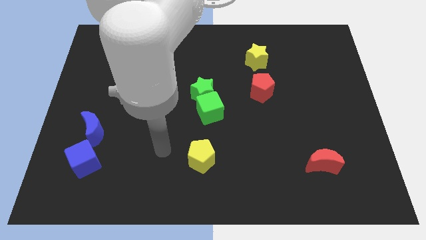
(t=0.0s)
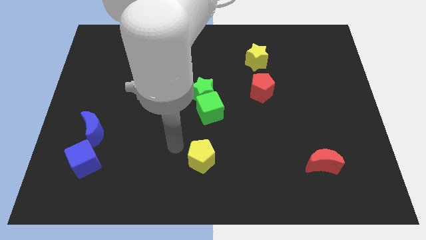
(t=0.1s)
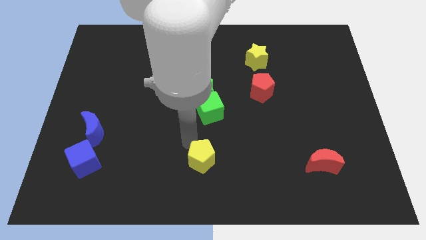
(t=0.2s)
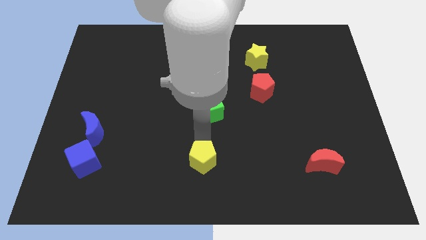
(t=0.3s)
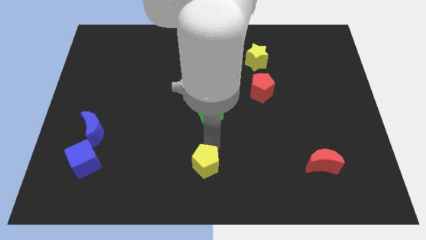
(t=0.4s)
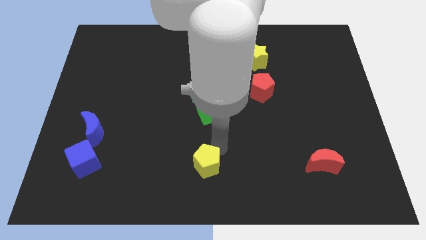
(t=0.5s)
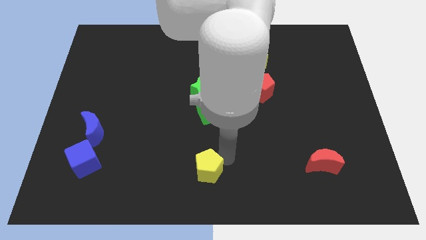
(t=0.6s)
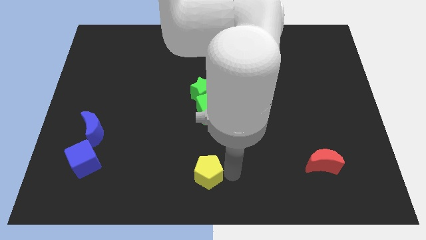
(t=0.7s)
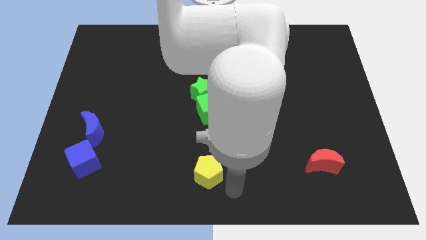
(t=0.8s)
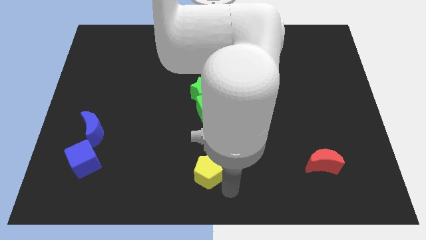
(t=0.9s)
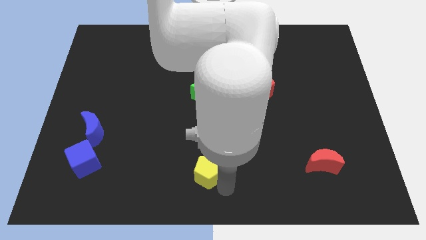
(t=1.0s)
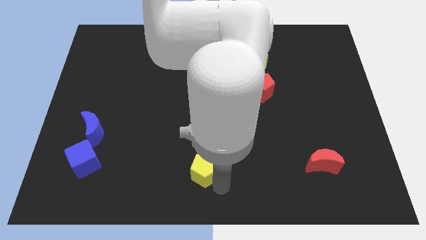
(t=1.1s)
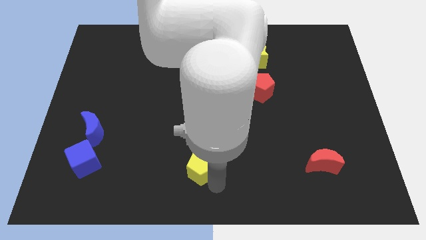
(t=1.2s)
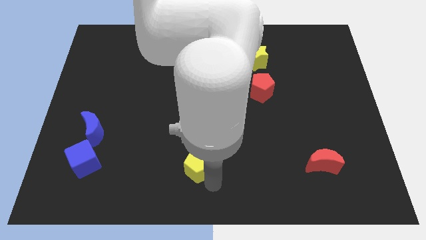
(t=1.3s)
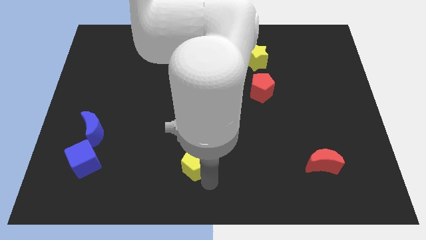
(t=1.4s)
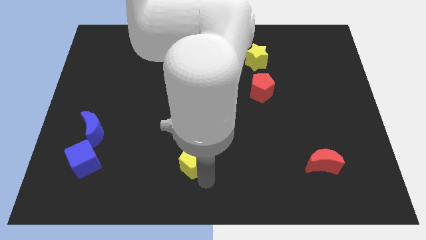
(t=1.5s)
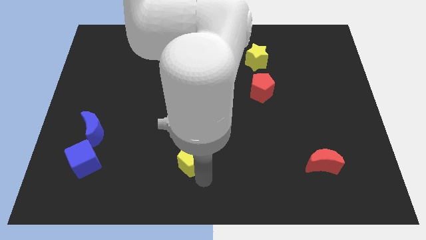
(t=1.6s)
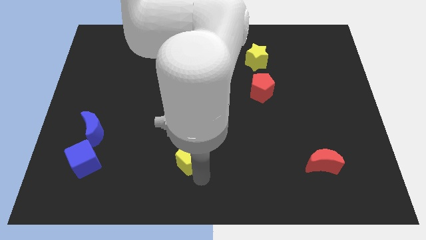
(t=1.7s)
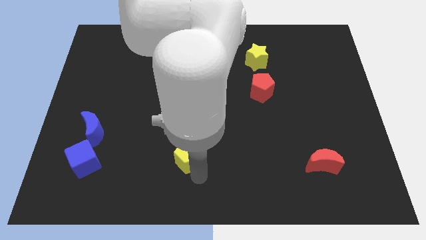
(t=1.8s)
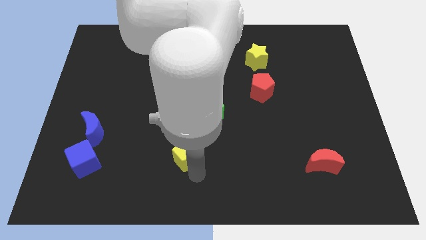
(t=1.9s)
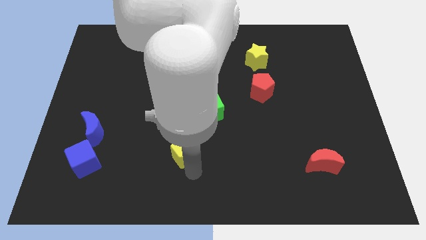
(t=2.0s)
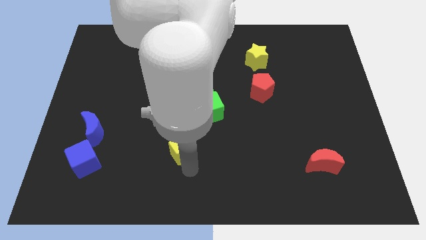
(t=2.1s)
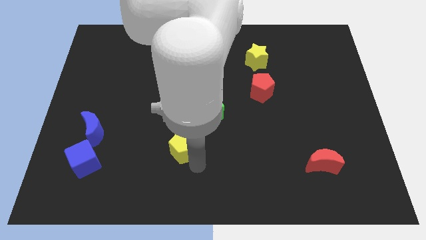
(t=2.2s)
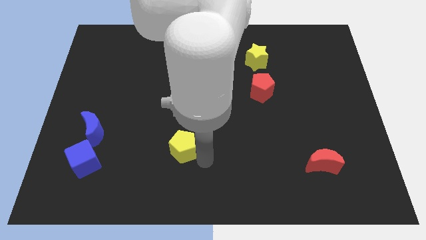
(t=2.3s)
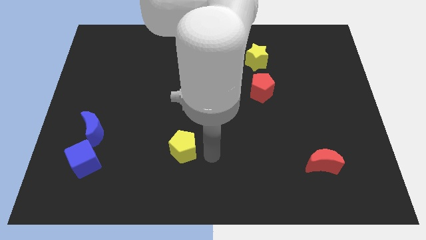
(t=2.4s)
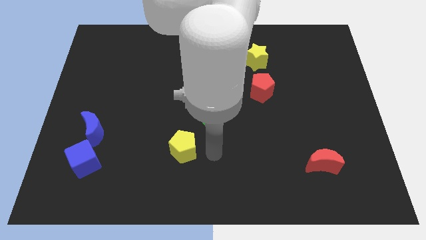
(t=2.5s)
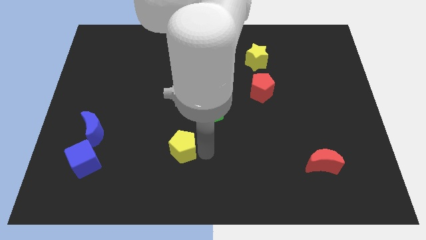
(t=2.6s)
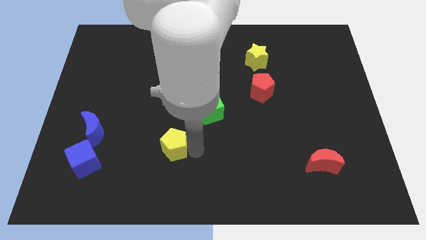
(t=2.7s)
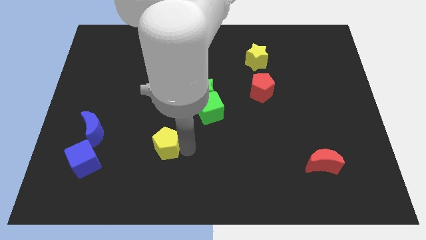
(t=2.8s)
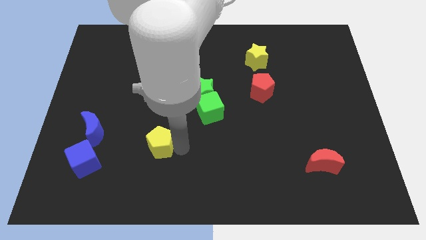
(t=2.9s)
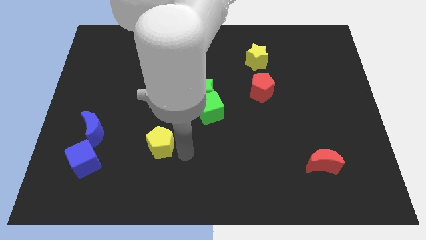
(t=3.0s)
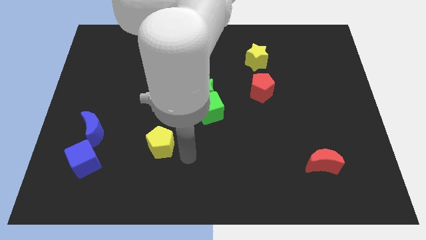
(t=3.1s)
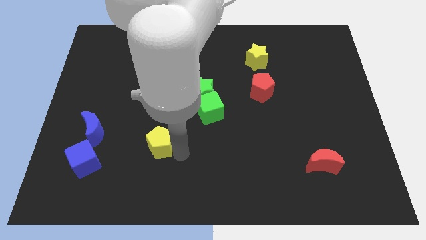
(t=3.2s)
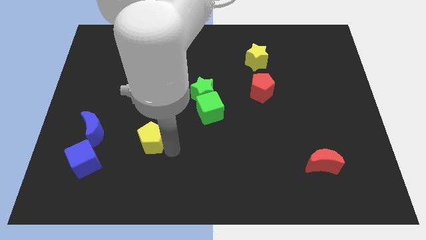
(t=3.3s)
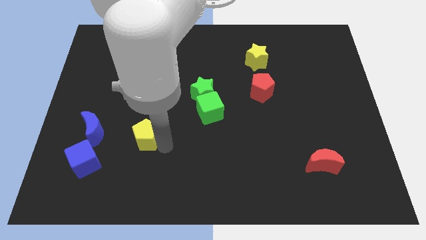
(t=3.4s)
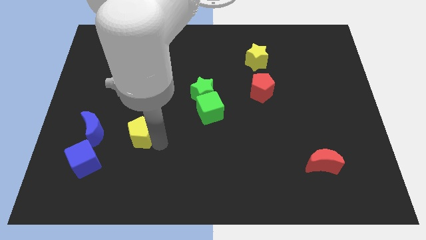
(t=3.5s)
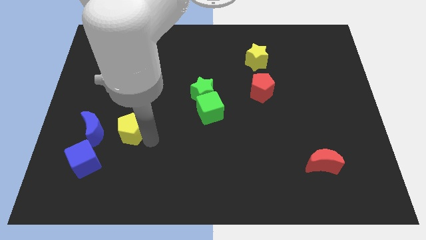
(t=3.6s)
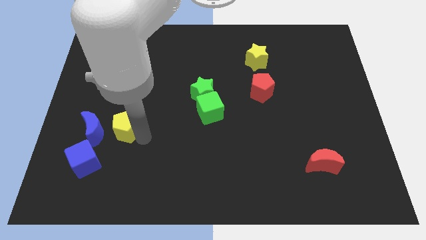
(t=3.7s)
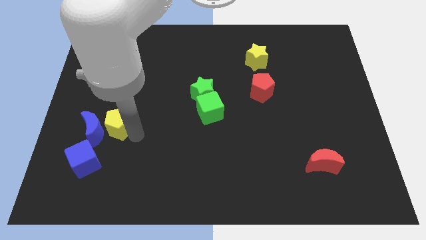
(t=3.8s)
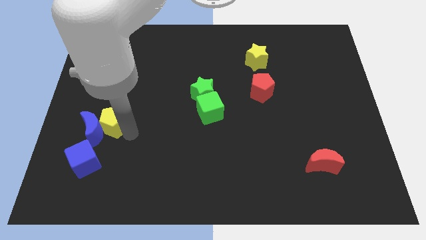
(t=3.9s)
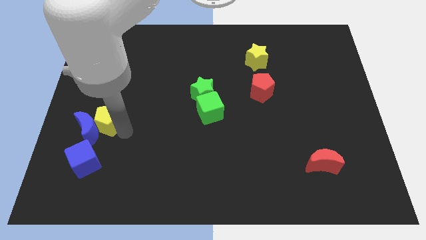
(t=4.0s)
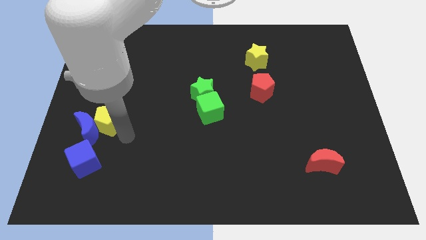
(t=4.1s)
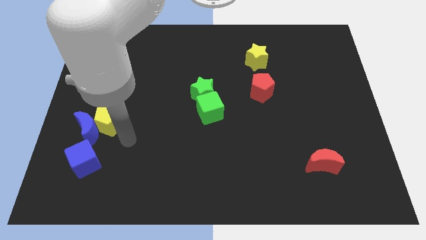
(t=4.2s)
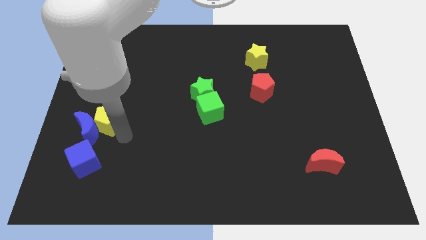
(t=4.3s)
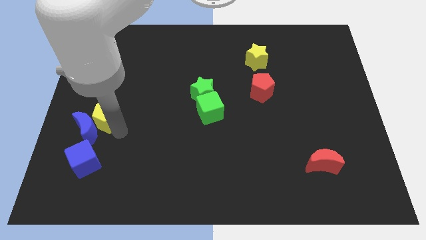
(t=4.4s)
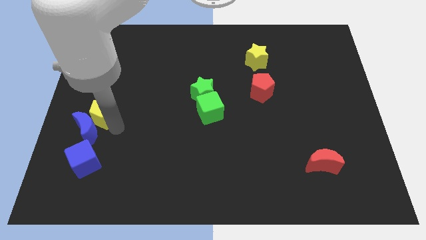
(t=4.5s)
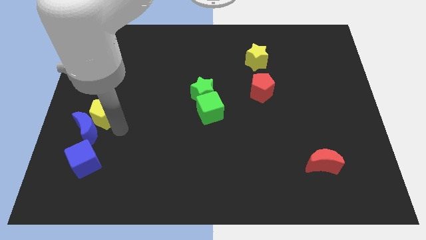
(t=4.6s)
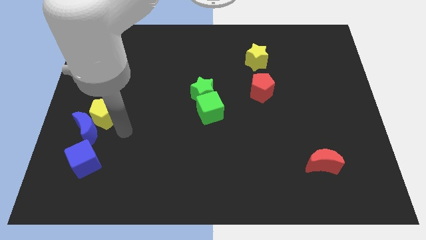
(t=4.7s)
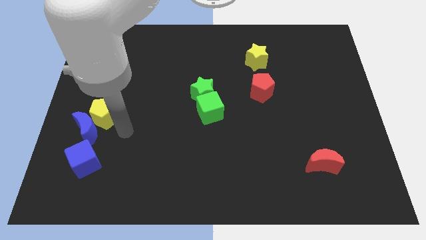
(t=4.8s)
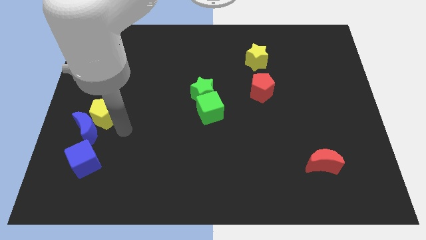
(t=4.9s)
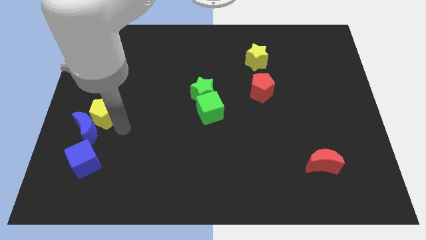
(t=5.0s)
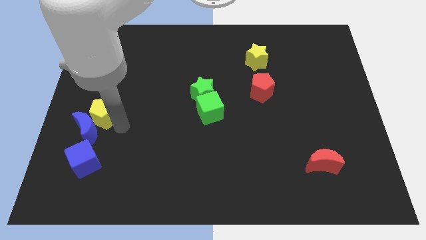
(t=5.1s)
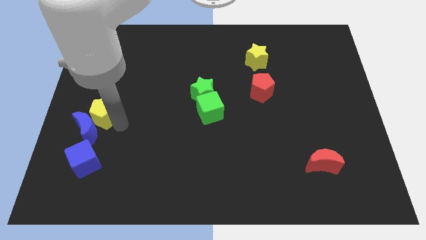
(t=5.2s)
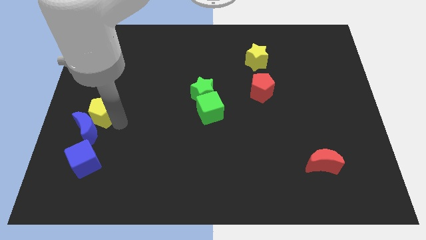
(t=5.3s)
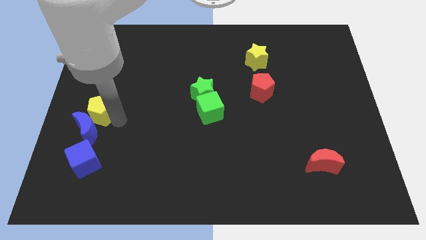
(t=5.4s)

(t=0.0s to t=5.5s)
move the yellow pentagon to the left side of the board

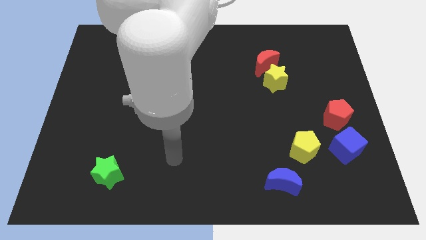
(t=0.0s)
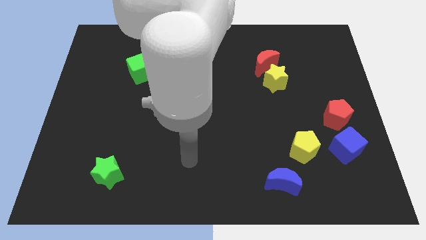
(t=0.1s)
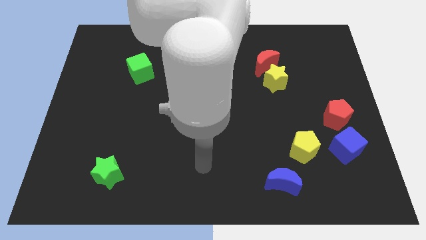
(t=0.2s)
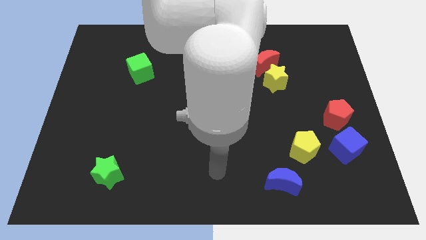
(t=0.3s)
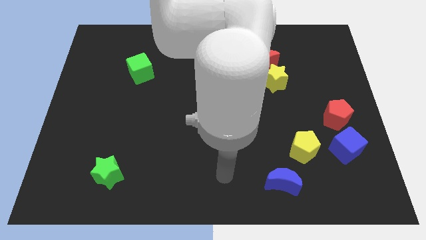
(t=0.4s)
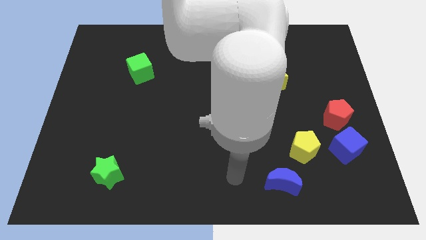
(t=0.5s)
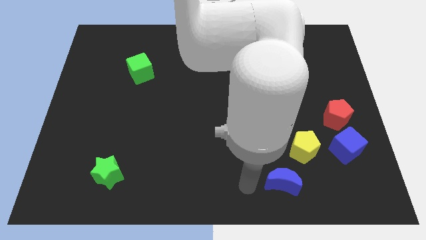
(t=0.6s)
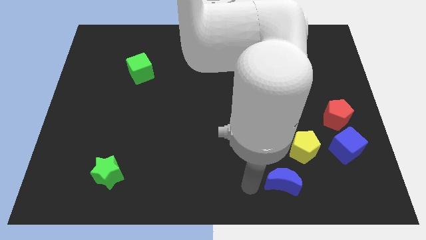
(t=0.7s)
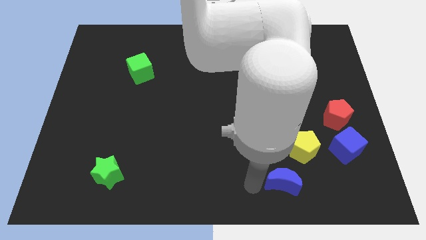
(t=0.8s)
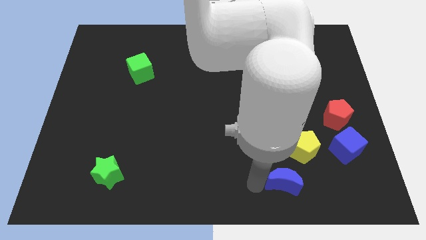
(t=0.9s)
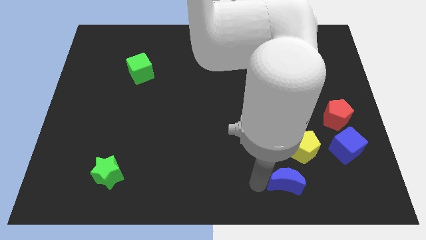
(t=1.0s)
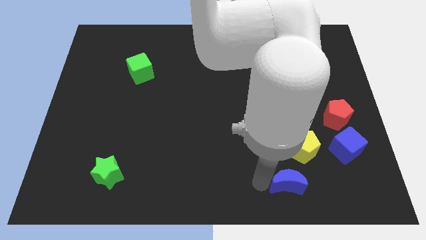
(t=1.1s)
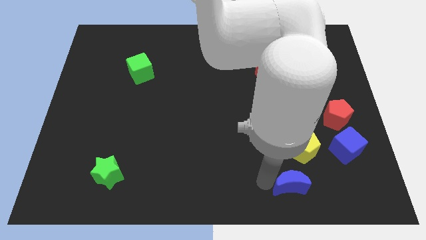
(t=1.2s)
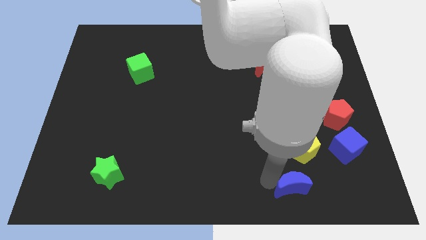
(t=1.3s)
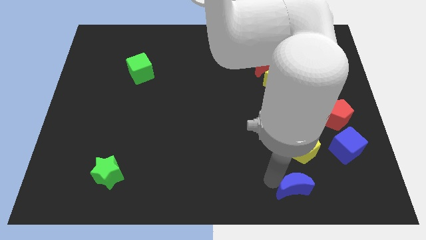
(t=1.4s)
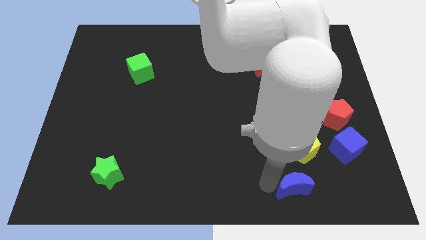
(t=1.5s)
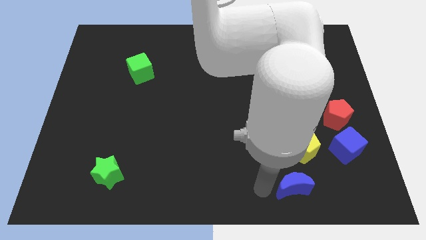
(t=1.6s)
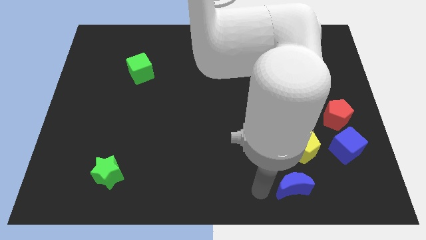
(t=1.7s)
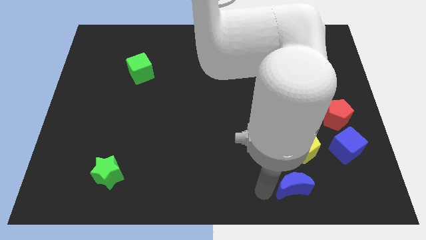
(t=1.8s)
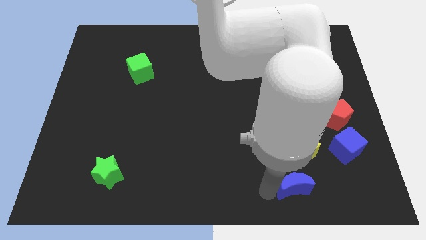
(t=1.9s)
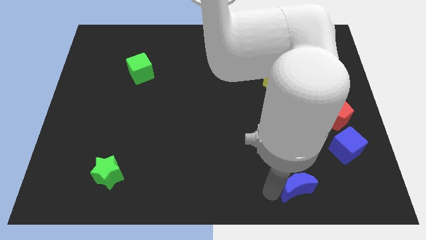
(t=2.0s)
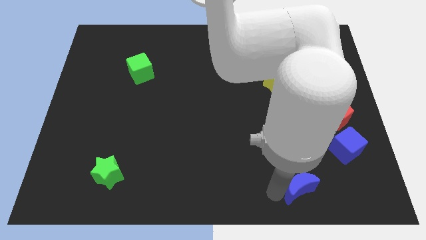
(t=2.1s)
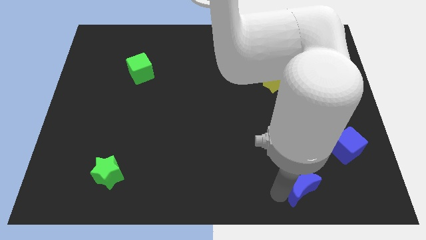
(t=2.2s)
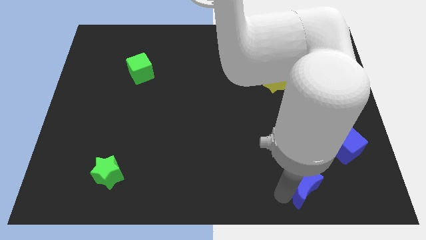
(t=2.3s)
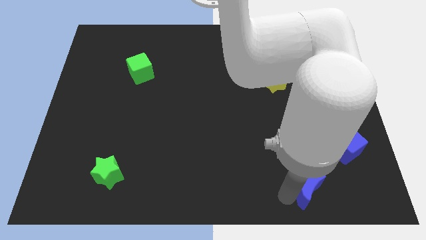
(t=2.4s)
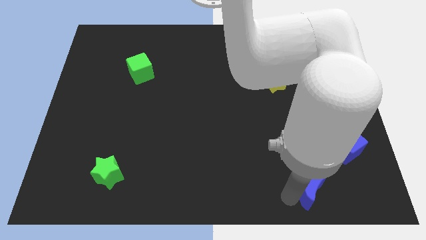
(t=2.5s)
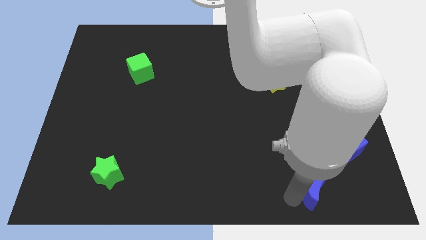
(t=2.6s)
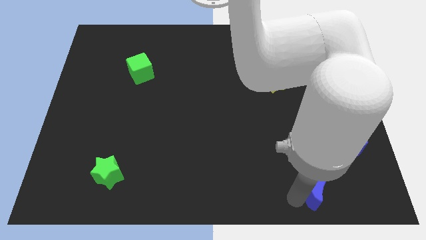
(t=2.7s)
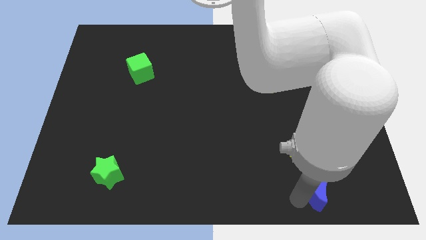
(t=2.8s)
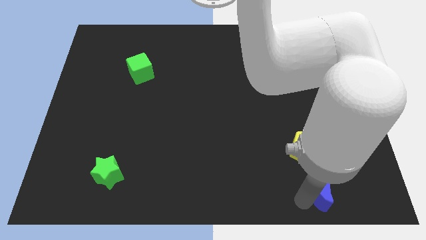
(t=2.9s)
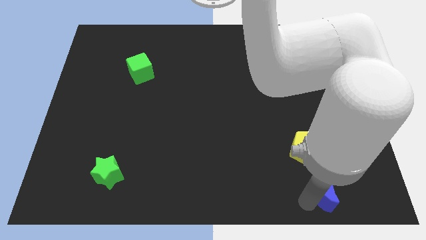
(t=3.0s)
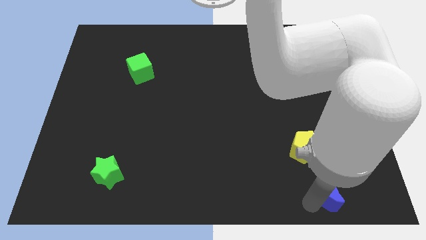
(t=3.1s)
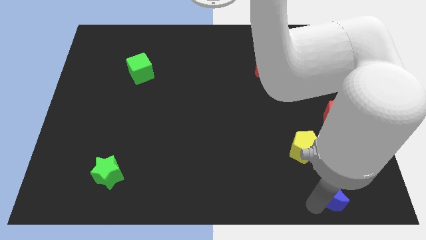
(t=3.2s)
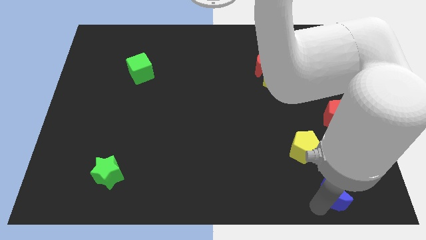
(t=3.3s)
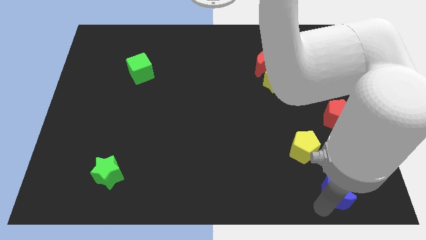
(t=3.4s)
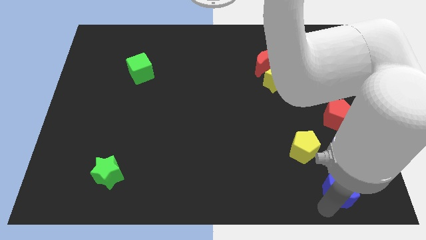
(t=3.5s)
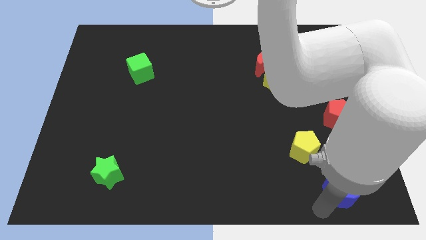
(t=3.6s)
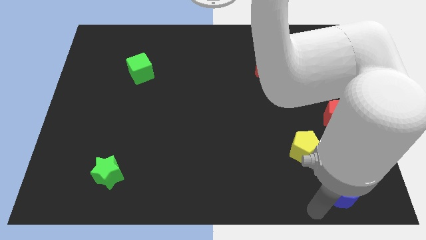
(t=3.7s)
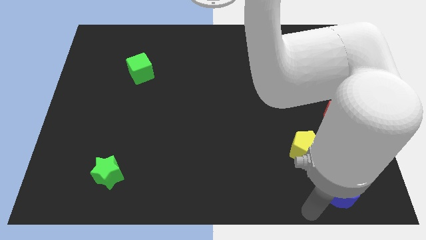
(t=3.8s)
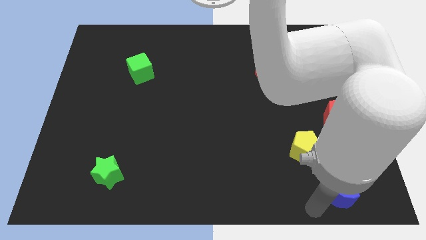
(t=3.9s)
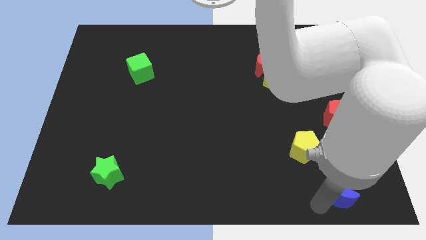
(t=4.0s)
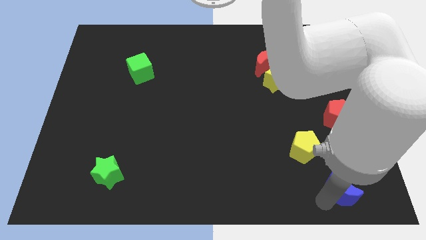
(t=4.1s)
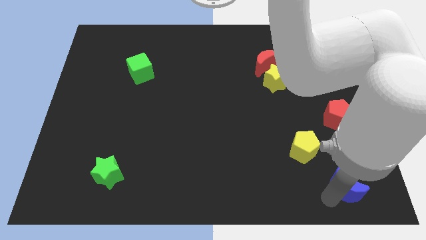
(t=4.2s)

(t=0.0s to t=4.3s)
slide the blue moon to the lower right corner
